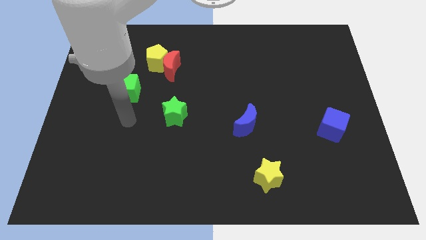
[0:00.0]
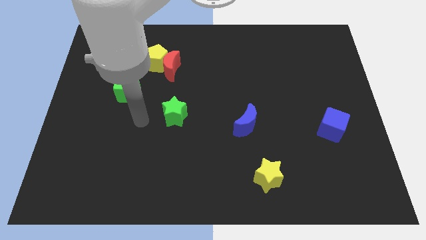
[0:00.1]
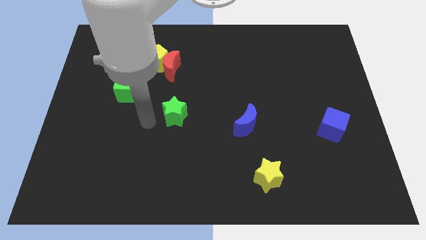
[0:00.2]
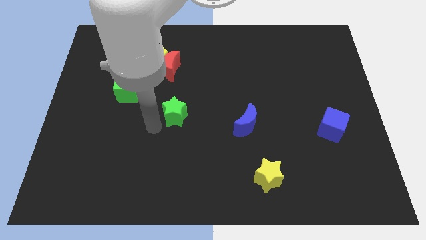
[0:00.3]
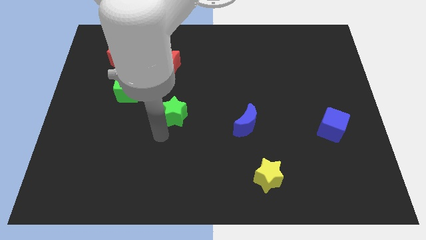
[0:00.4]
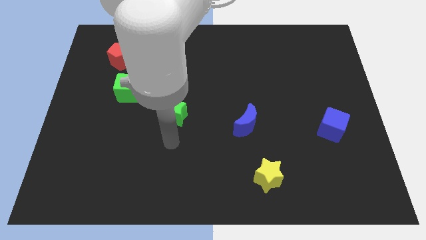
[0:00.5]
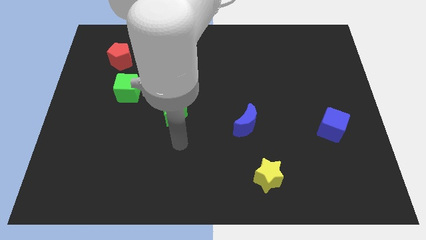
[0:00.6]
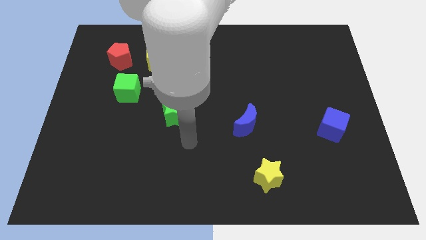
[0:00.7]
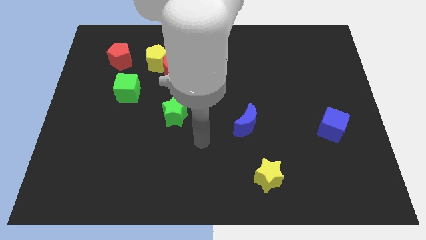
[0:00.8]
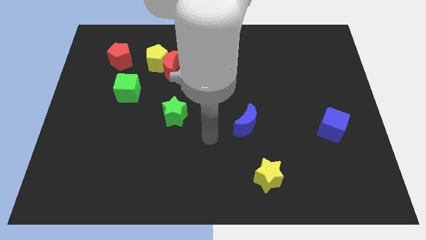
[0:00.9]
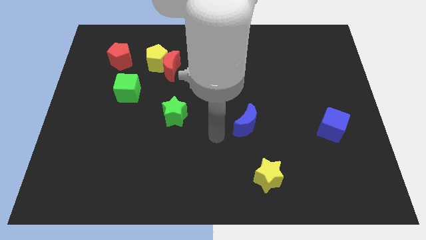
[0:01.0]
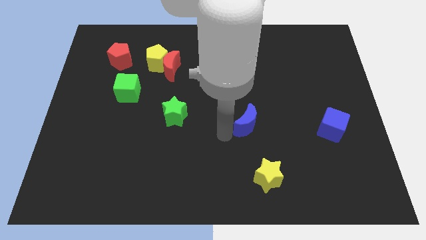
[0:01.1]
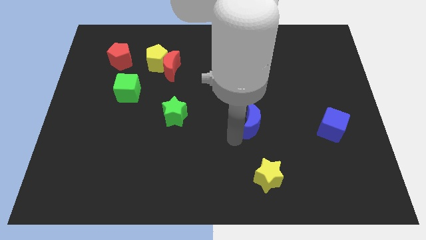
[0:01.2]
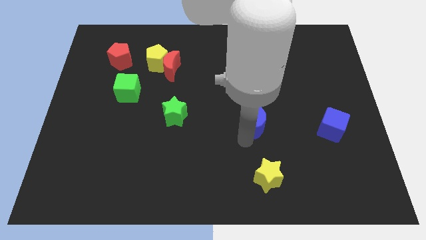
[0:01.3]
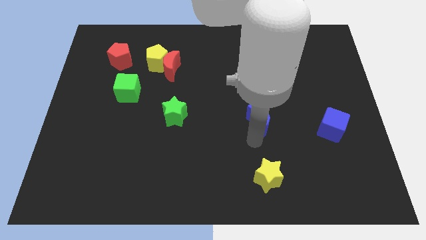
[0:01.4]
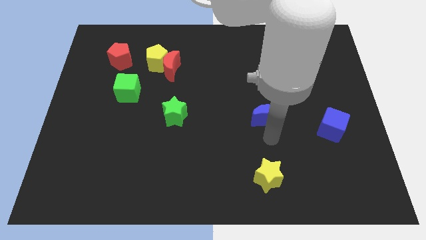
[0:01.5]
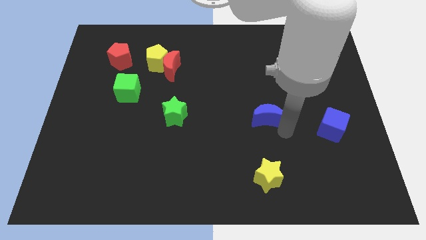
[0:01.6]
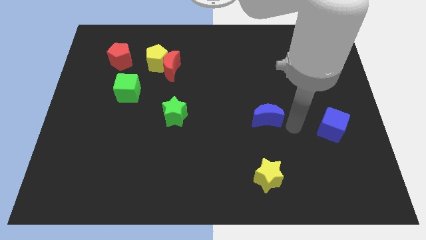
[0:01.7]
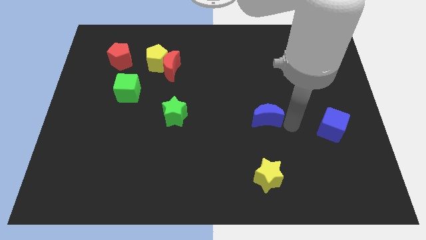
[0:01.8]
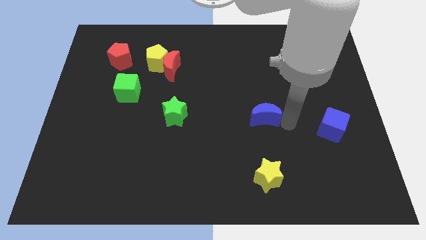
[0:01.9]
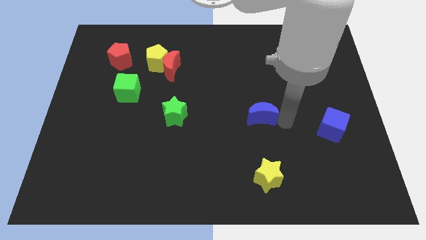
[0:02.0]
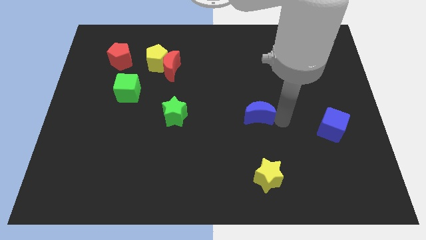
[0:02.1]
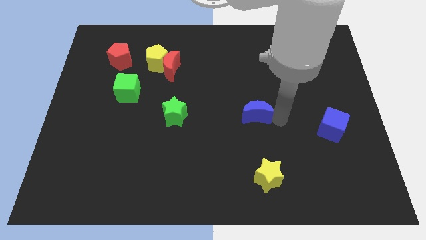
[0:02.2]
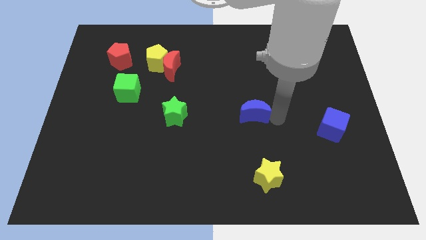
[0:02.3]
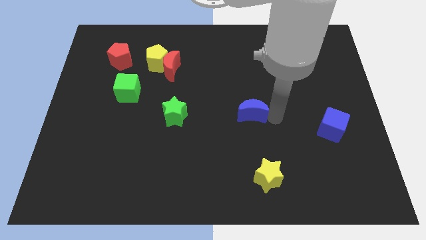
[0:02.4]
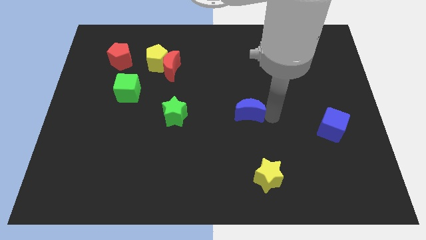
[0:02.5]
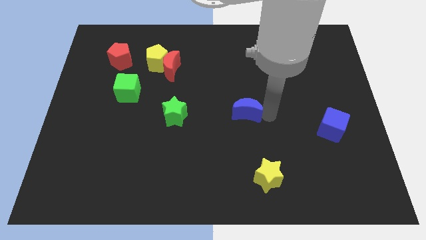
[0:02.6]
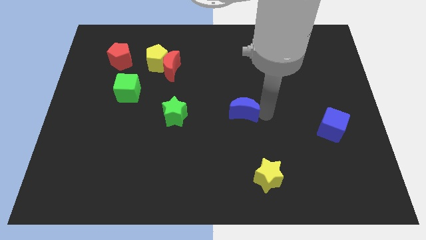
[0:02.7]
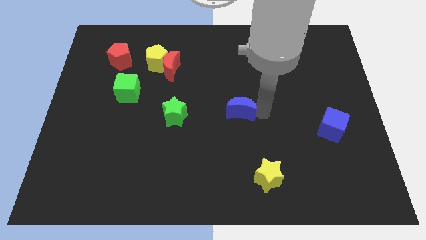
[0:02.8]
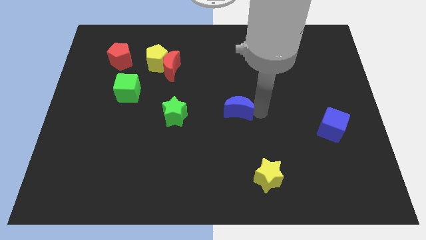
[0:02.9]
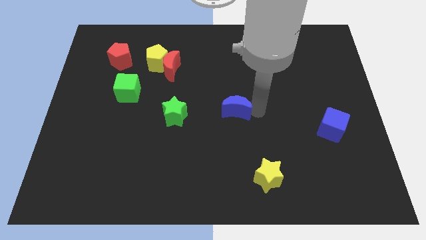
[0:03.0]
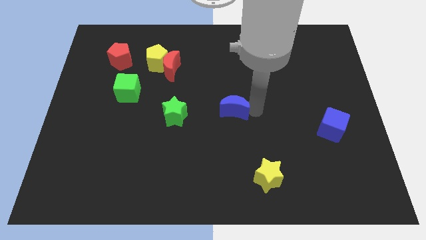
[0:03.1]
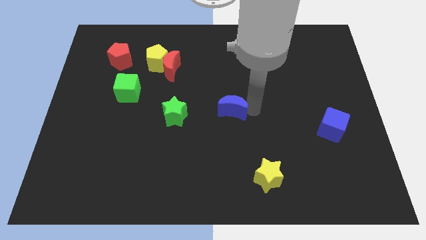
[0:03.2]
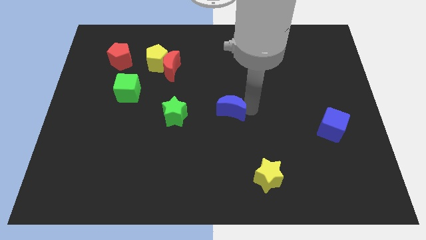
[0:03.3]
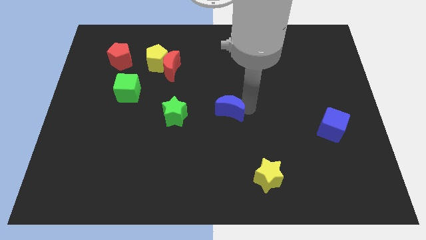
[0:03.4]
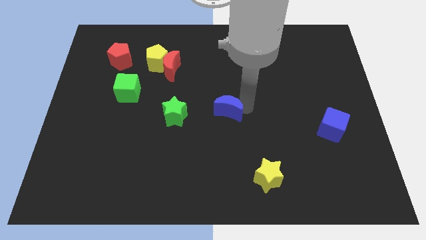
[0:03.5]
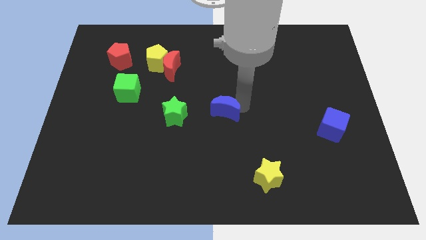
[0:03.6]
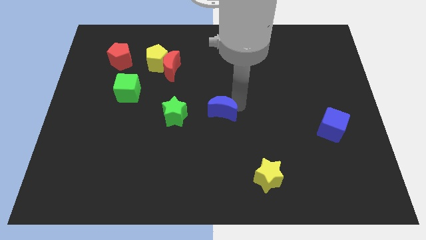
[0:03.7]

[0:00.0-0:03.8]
slightly push the blue moon upwards and left diagonally

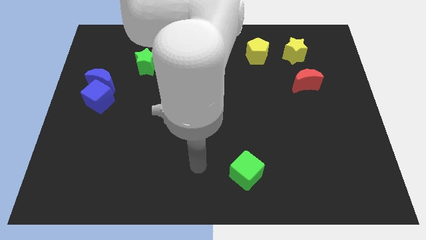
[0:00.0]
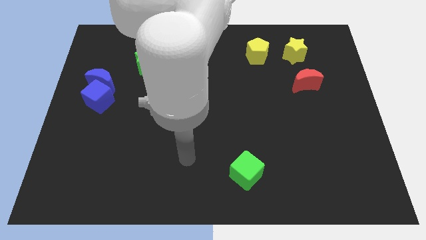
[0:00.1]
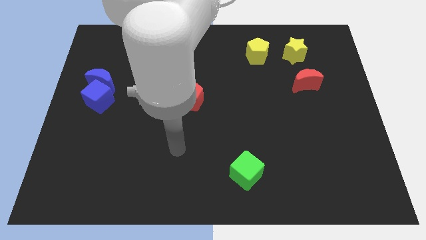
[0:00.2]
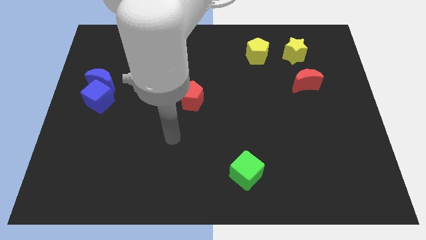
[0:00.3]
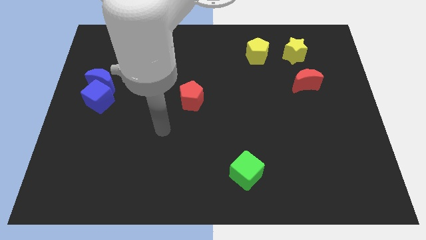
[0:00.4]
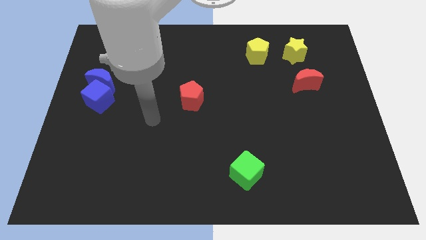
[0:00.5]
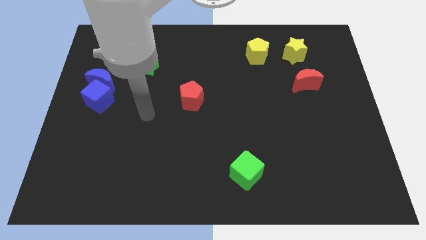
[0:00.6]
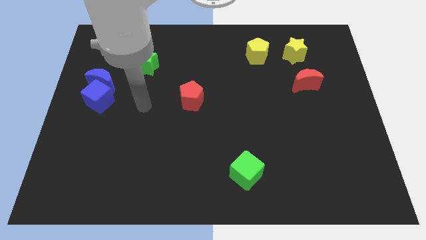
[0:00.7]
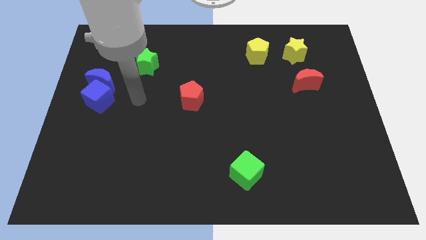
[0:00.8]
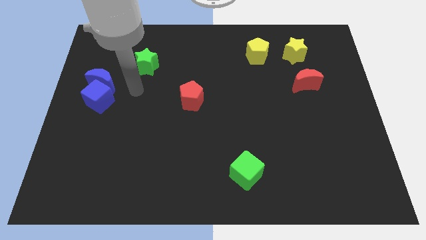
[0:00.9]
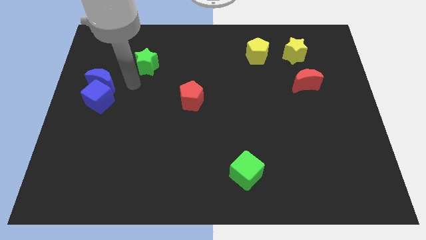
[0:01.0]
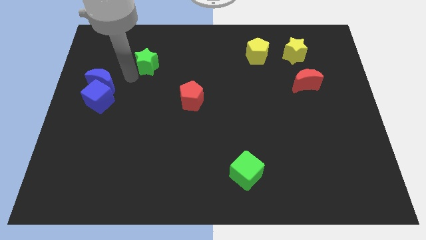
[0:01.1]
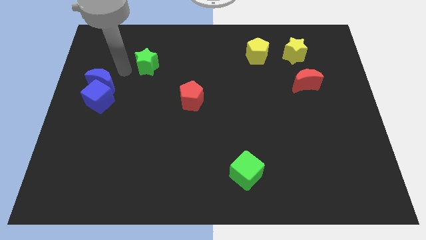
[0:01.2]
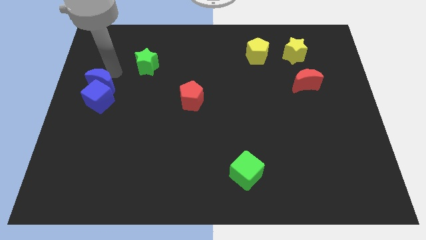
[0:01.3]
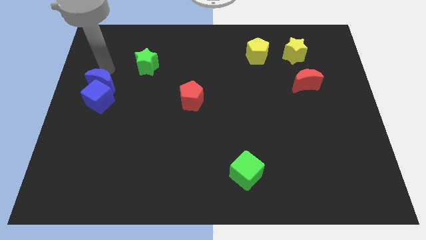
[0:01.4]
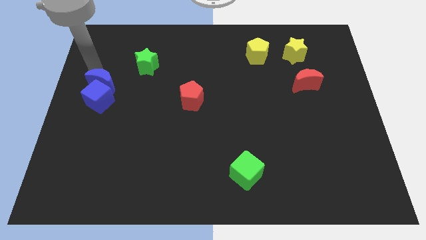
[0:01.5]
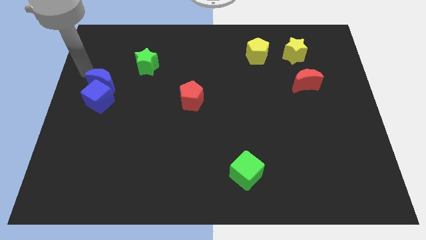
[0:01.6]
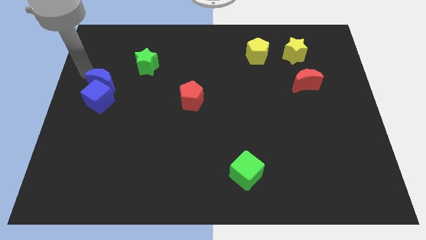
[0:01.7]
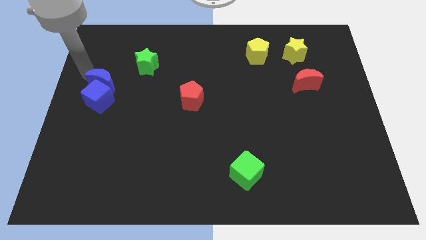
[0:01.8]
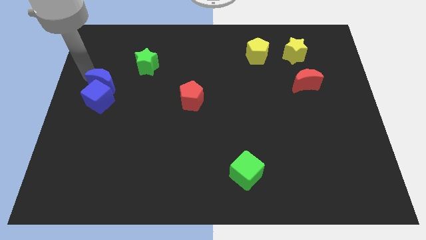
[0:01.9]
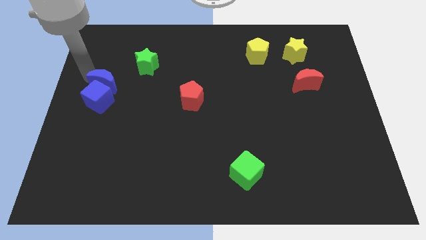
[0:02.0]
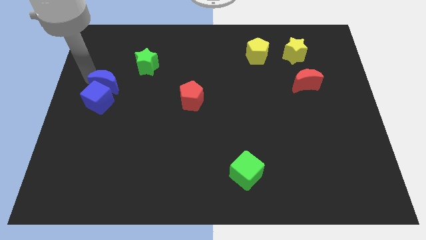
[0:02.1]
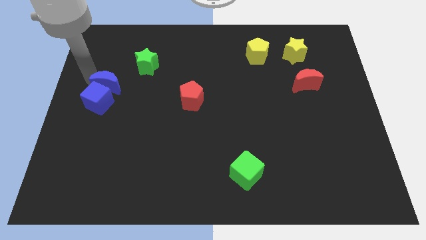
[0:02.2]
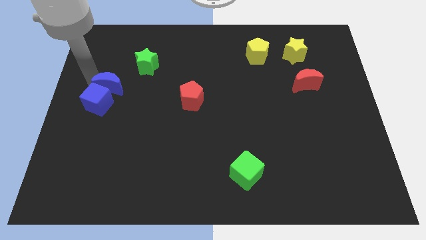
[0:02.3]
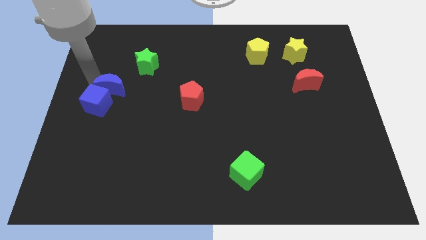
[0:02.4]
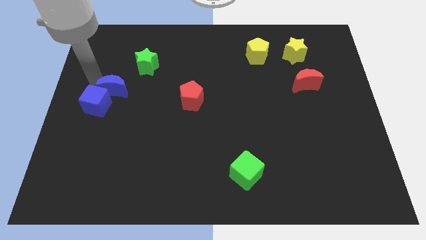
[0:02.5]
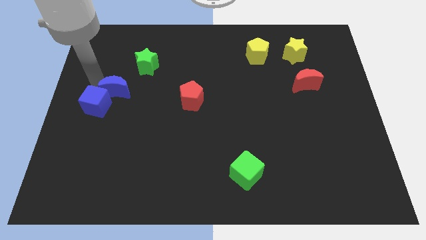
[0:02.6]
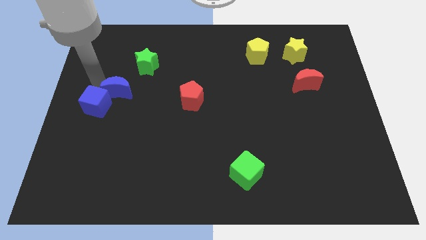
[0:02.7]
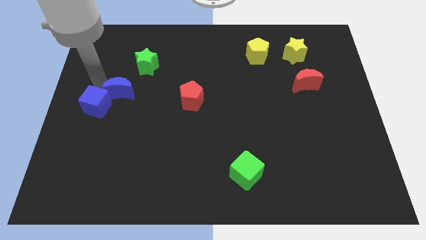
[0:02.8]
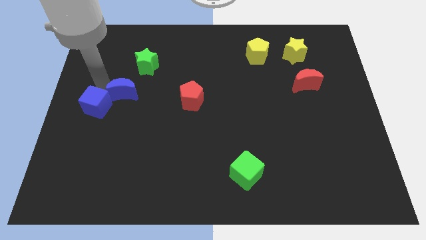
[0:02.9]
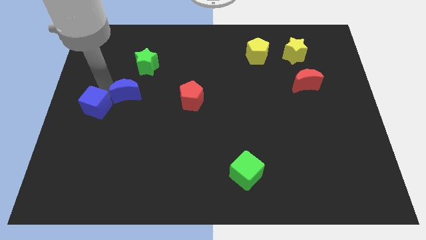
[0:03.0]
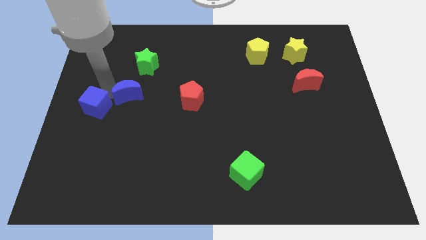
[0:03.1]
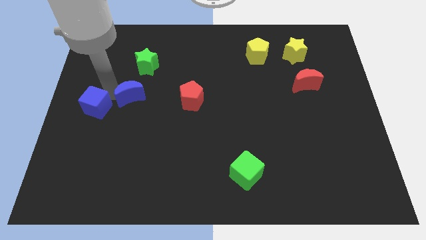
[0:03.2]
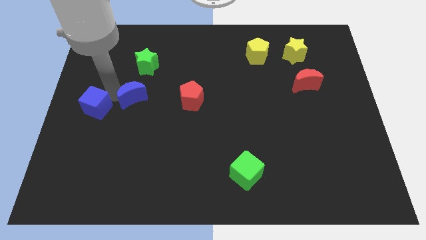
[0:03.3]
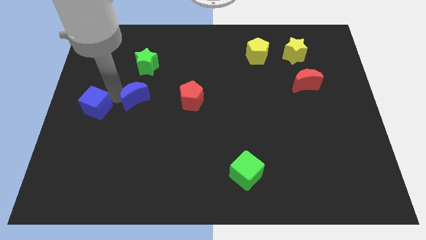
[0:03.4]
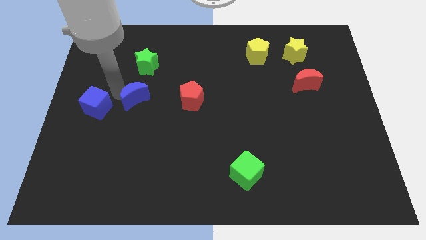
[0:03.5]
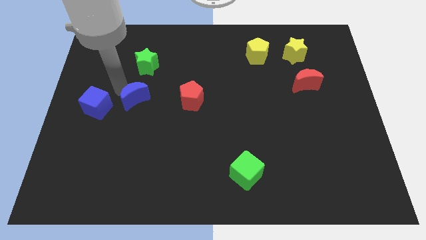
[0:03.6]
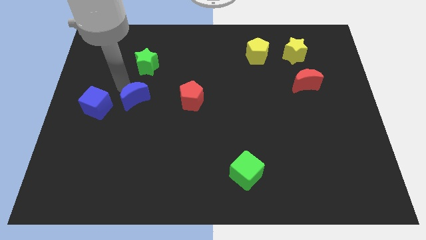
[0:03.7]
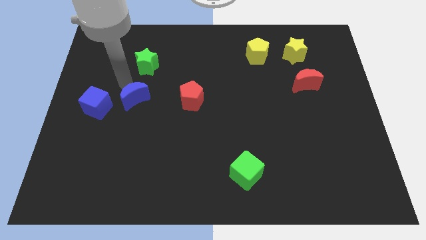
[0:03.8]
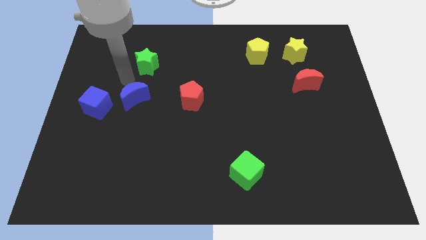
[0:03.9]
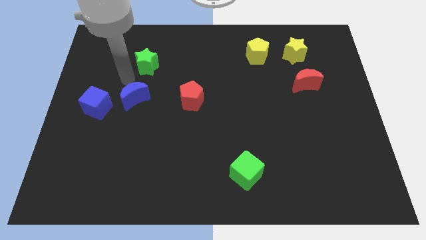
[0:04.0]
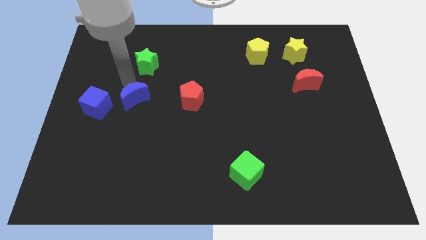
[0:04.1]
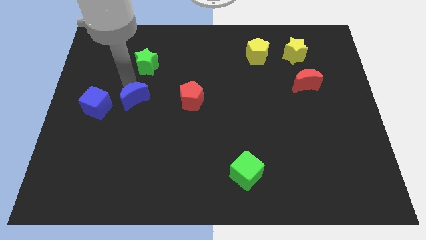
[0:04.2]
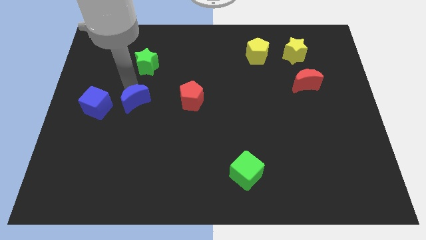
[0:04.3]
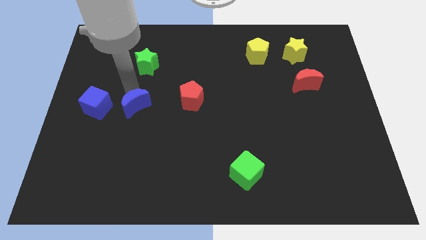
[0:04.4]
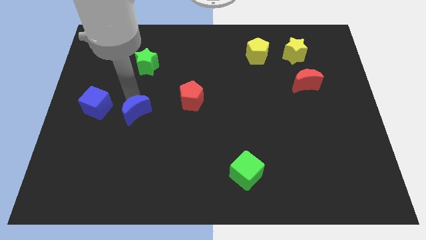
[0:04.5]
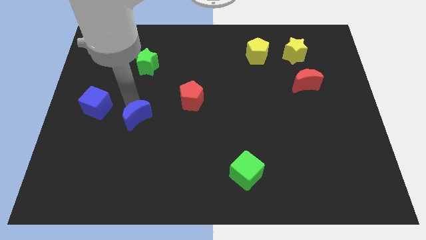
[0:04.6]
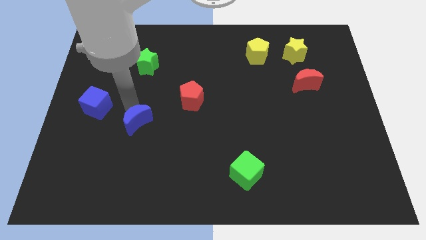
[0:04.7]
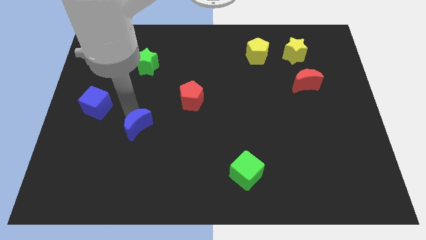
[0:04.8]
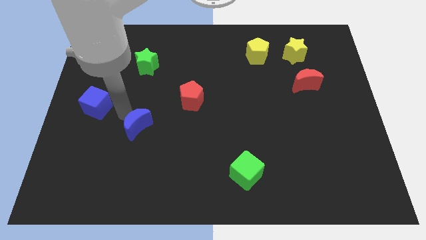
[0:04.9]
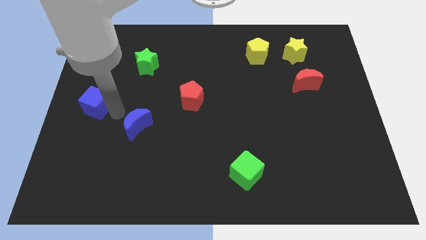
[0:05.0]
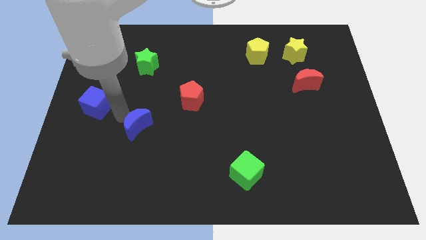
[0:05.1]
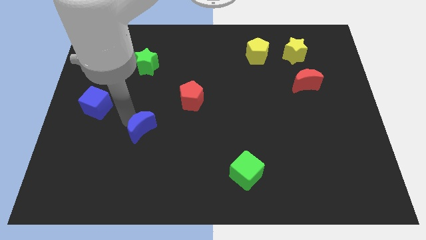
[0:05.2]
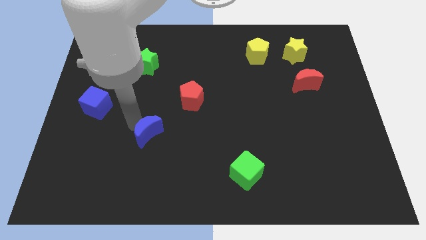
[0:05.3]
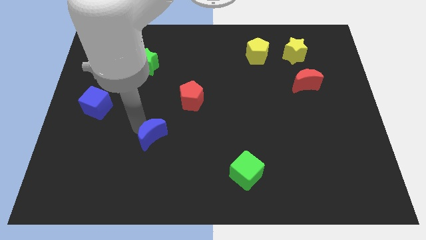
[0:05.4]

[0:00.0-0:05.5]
slide the blue moon down and to the right diagonally
